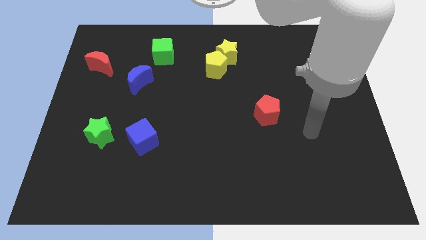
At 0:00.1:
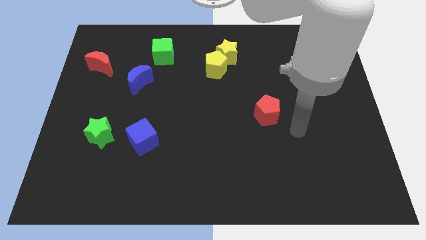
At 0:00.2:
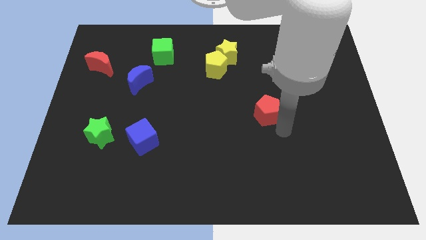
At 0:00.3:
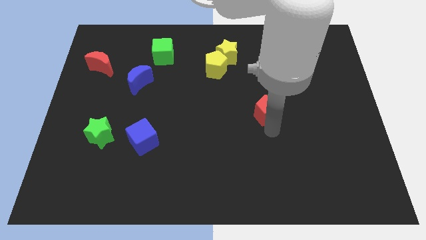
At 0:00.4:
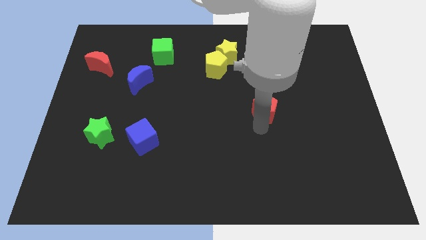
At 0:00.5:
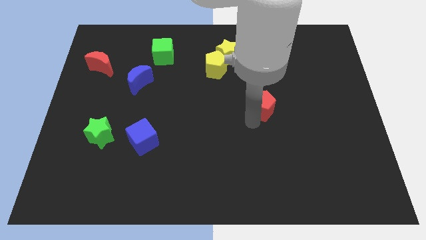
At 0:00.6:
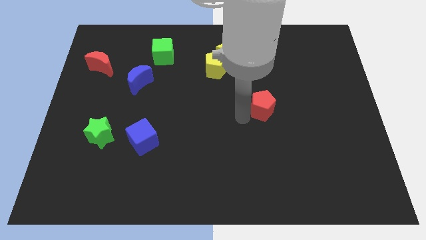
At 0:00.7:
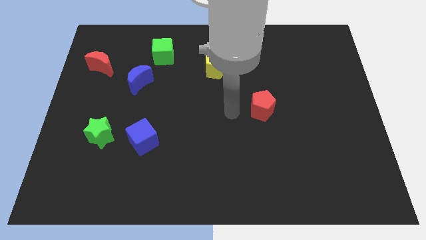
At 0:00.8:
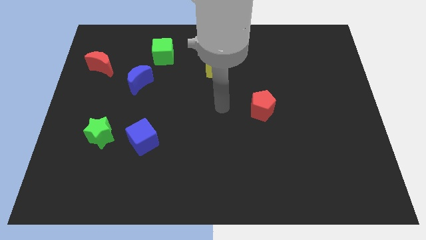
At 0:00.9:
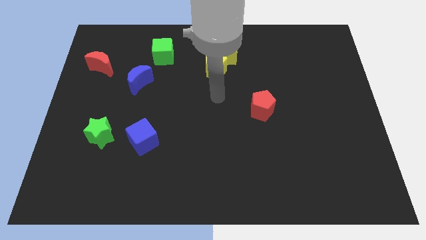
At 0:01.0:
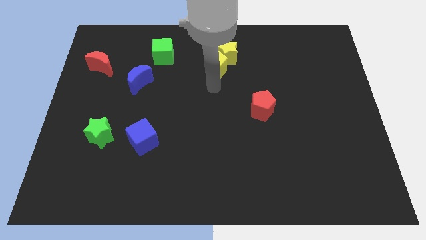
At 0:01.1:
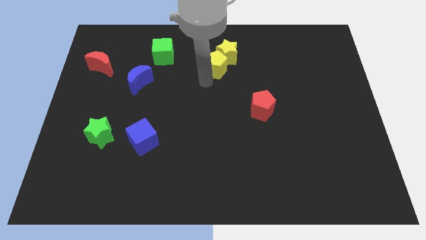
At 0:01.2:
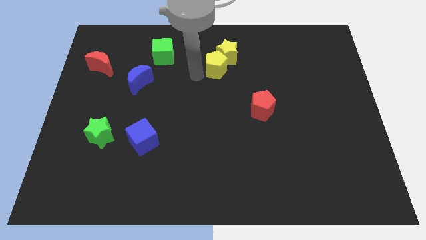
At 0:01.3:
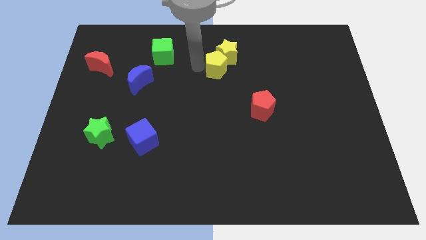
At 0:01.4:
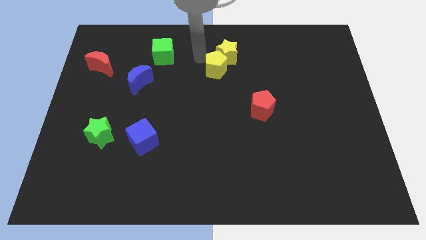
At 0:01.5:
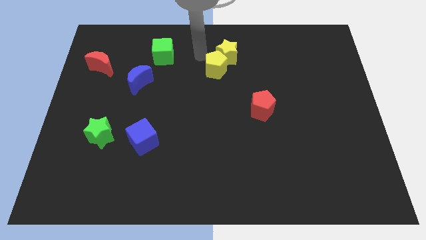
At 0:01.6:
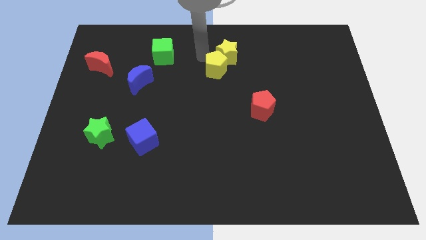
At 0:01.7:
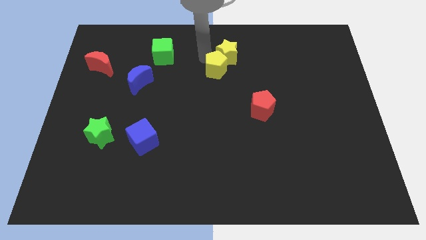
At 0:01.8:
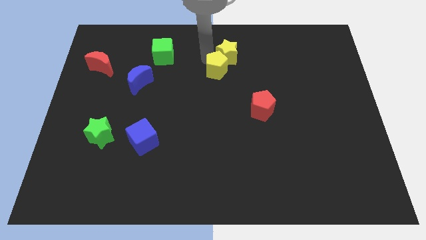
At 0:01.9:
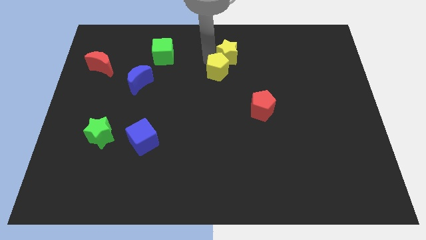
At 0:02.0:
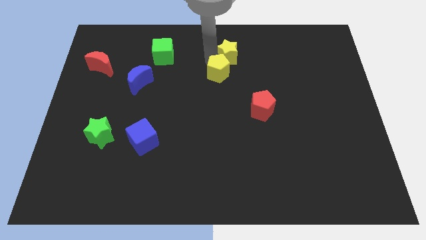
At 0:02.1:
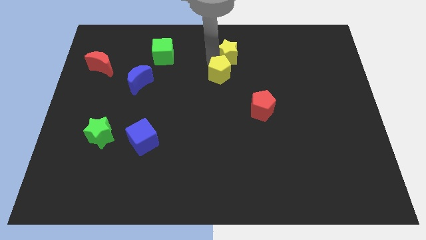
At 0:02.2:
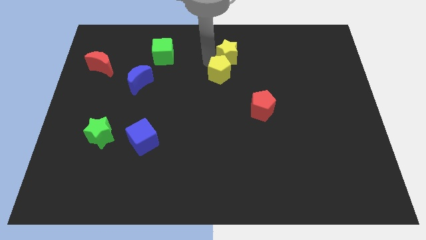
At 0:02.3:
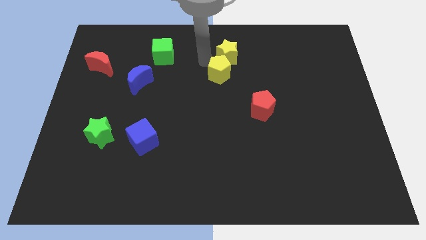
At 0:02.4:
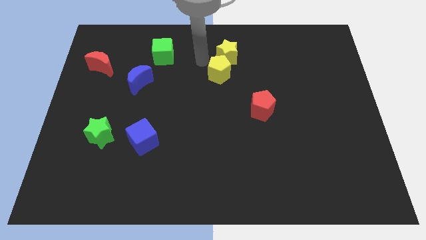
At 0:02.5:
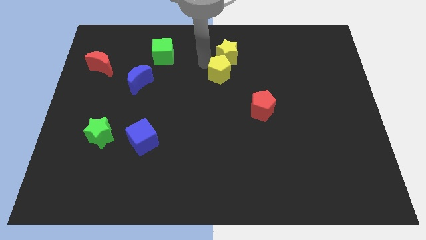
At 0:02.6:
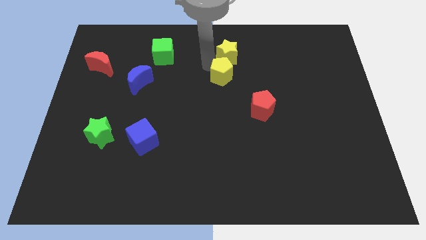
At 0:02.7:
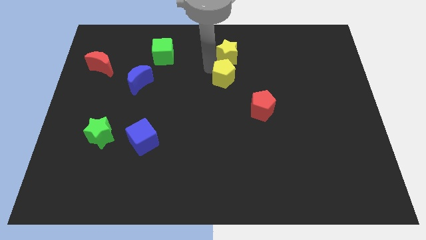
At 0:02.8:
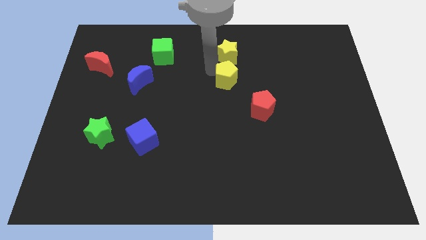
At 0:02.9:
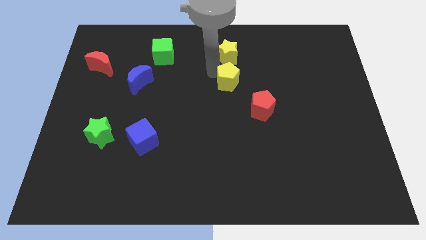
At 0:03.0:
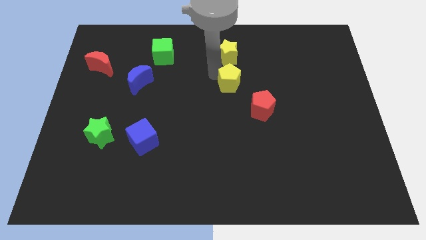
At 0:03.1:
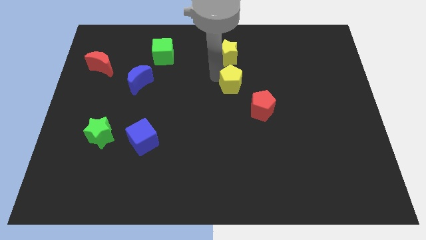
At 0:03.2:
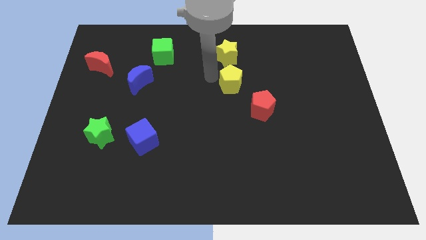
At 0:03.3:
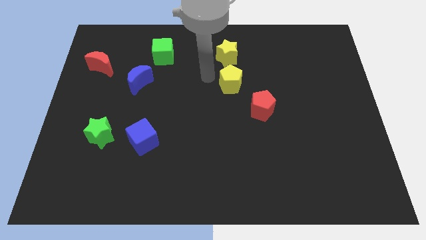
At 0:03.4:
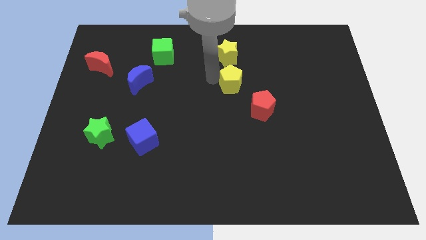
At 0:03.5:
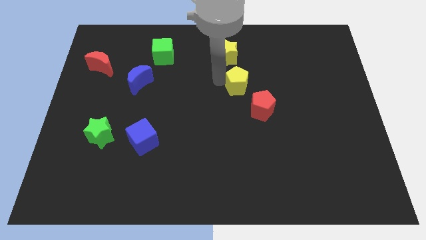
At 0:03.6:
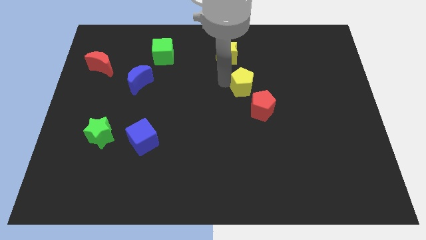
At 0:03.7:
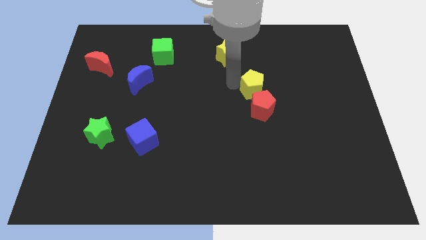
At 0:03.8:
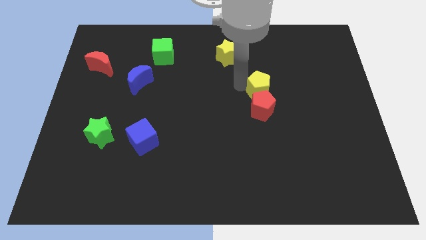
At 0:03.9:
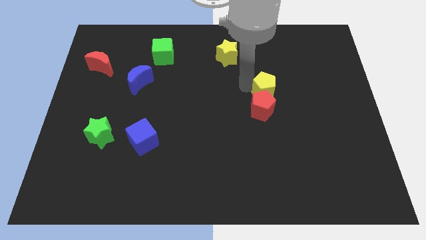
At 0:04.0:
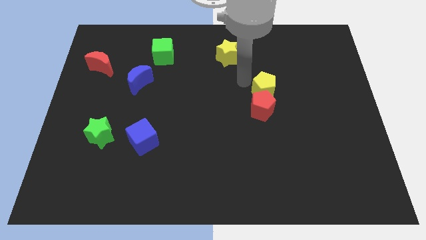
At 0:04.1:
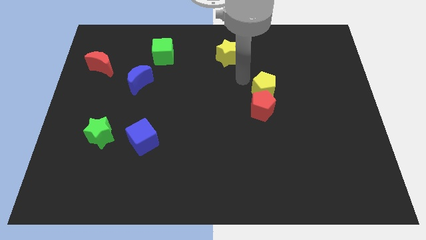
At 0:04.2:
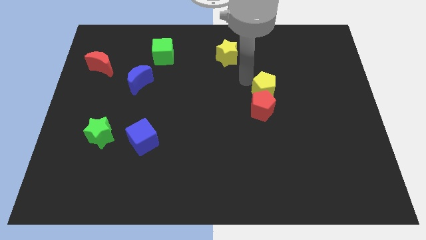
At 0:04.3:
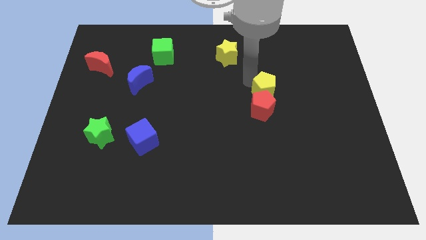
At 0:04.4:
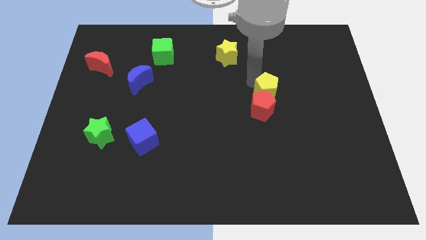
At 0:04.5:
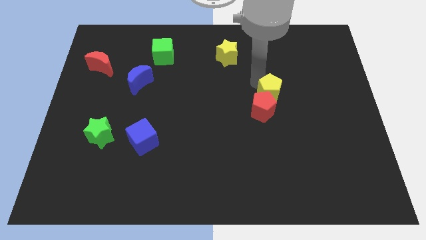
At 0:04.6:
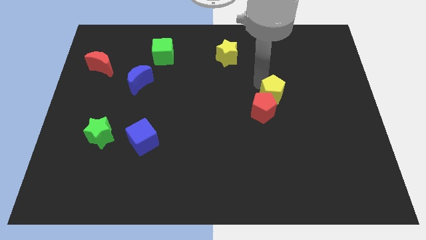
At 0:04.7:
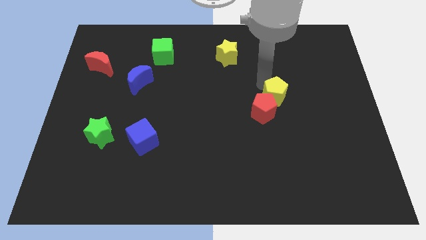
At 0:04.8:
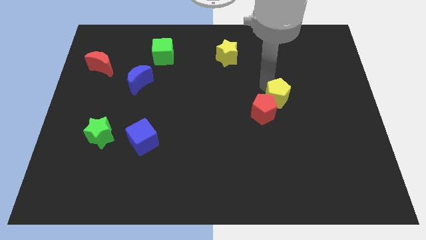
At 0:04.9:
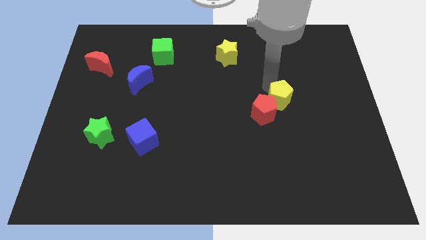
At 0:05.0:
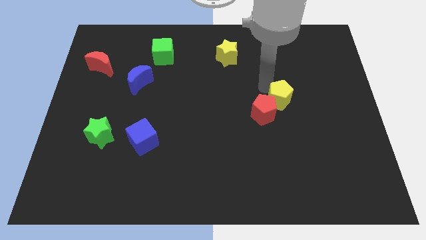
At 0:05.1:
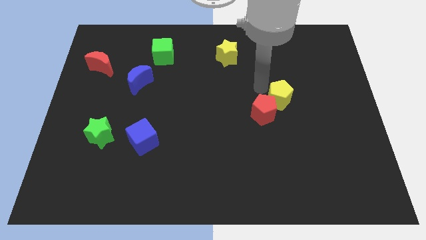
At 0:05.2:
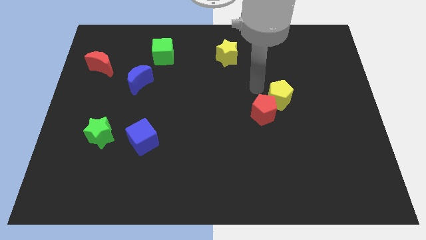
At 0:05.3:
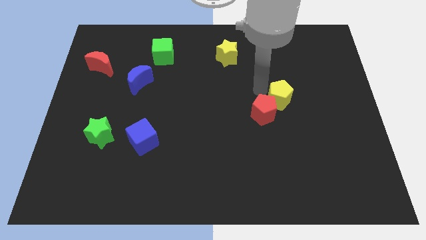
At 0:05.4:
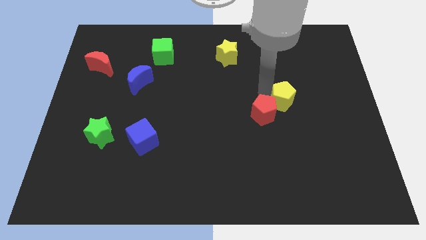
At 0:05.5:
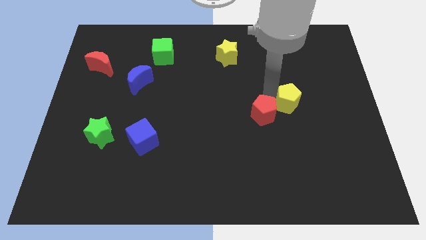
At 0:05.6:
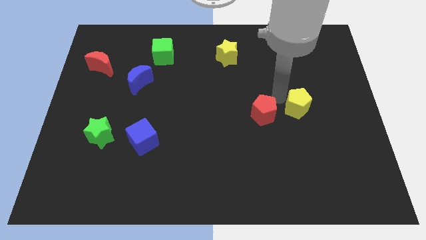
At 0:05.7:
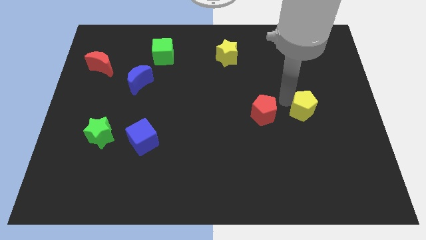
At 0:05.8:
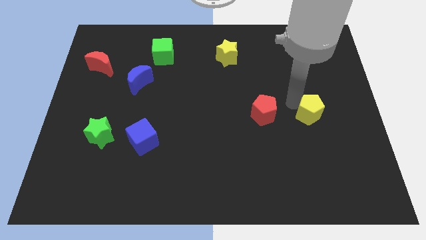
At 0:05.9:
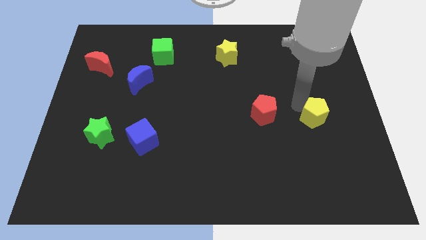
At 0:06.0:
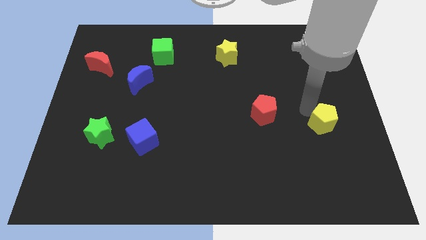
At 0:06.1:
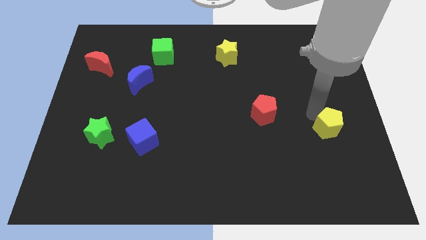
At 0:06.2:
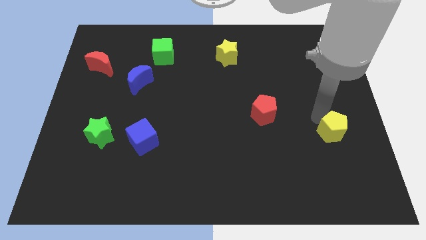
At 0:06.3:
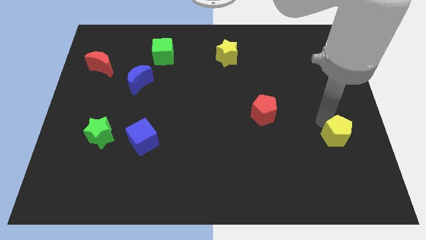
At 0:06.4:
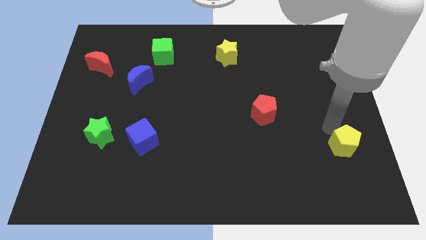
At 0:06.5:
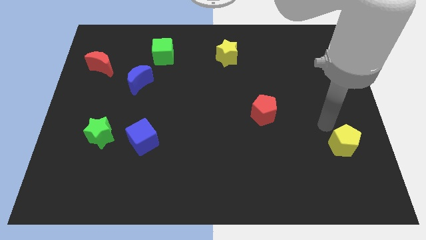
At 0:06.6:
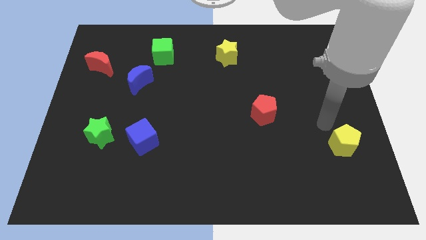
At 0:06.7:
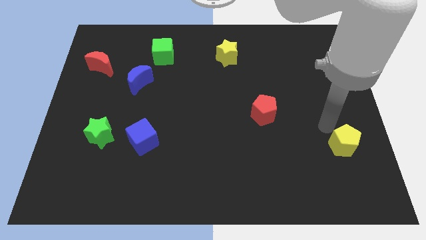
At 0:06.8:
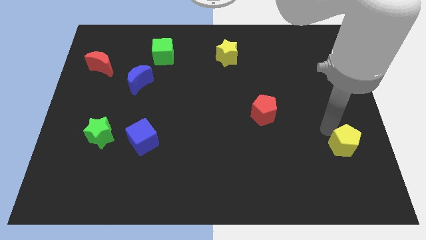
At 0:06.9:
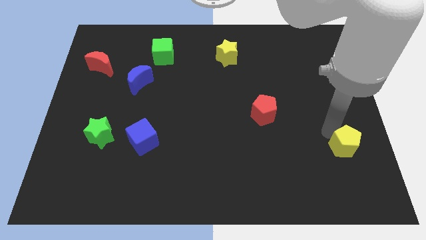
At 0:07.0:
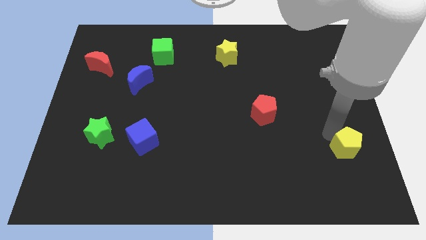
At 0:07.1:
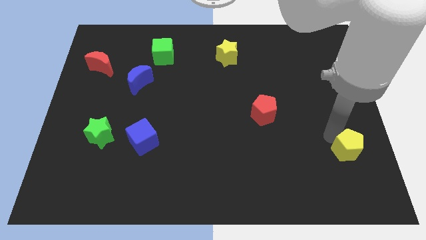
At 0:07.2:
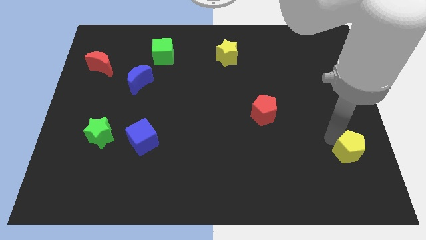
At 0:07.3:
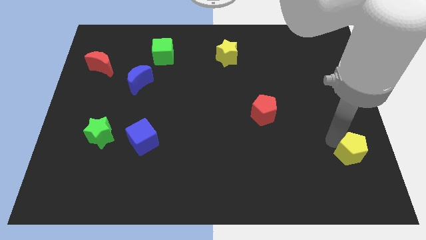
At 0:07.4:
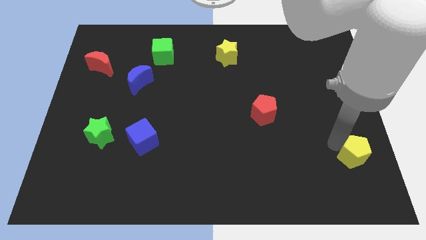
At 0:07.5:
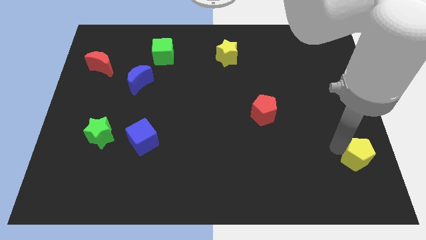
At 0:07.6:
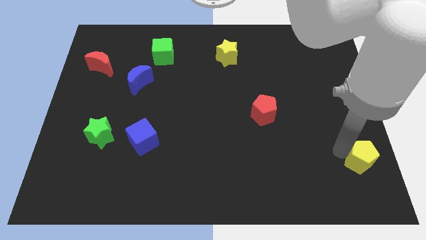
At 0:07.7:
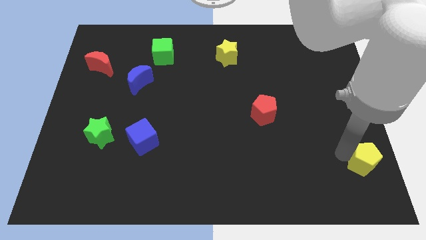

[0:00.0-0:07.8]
put the yellow pentagon to the bottom right corner
